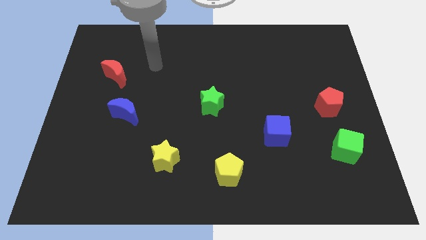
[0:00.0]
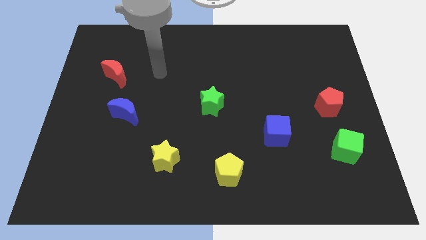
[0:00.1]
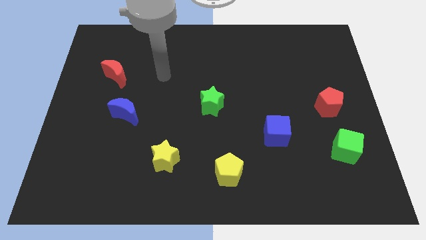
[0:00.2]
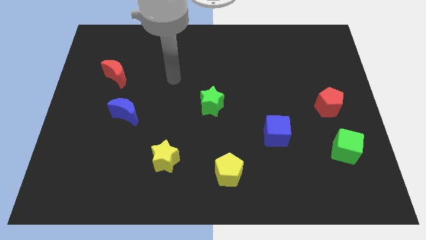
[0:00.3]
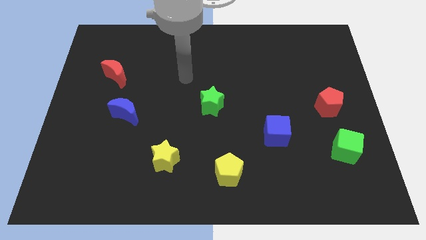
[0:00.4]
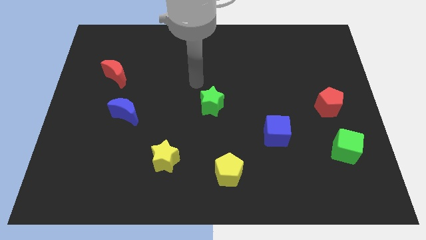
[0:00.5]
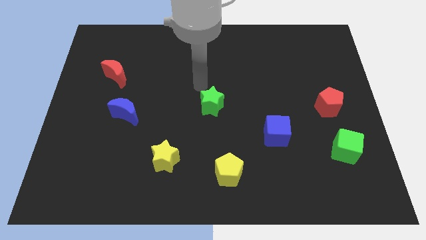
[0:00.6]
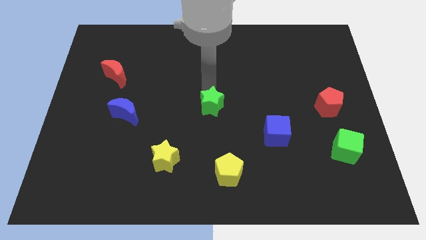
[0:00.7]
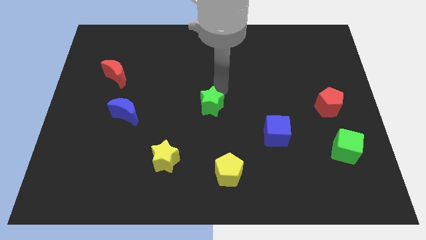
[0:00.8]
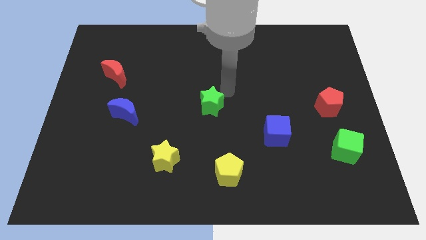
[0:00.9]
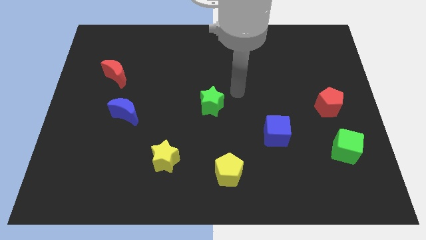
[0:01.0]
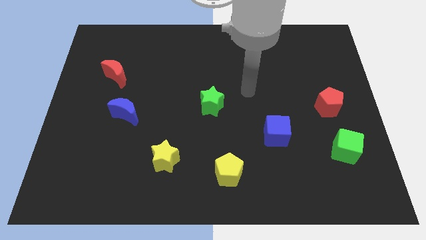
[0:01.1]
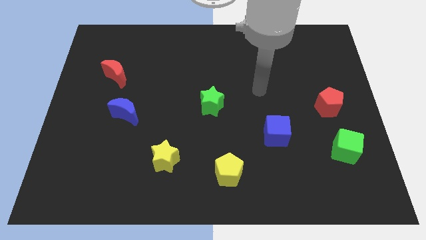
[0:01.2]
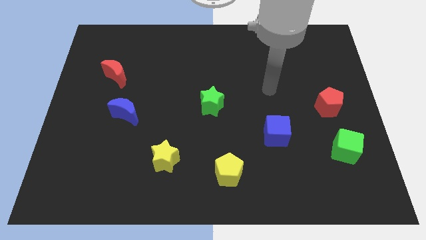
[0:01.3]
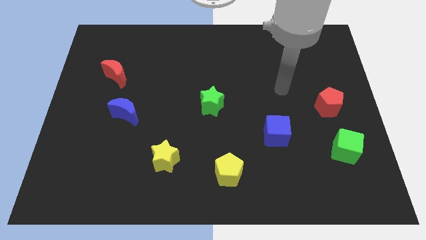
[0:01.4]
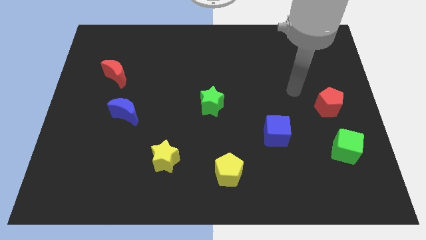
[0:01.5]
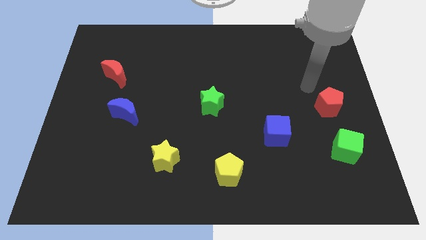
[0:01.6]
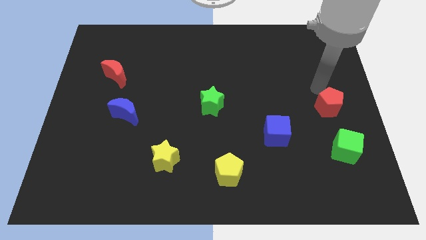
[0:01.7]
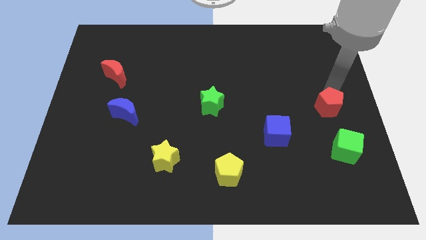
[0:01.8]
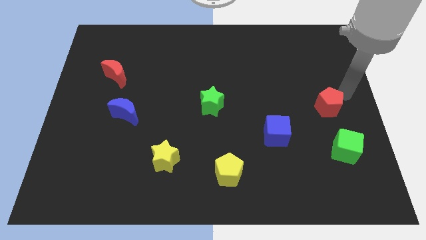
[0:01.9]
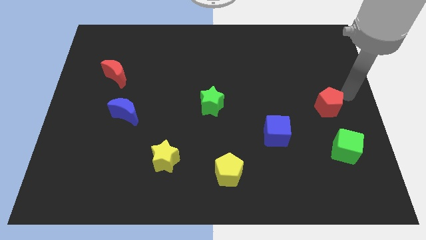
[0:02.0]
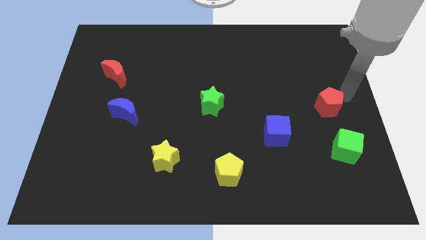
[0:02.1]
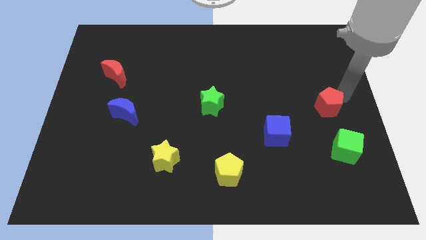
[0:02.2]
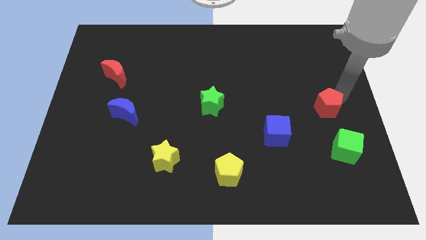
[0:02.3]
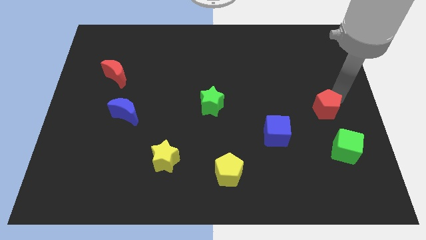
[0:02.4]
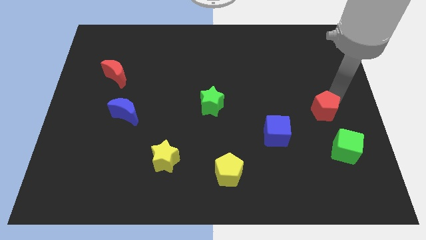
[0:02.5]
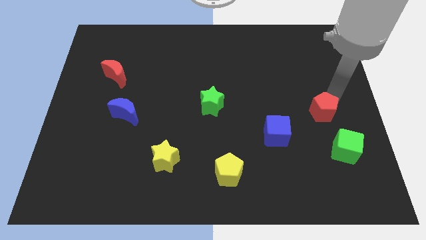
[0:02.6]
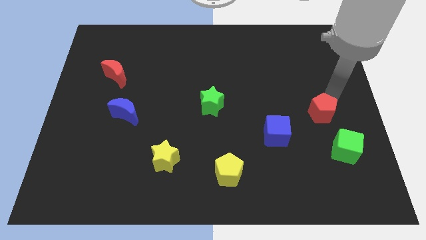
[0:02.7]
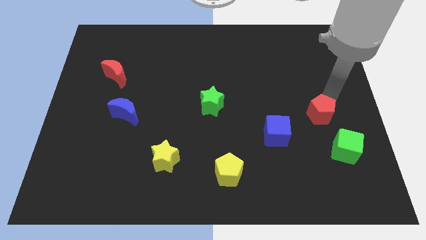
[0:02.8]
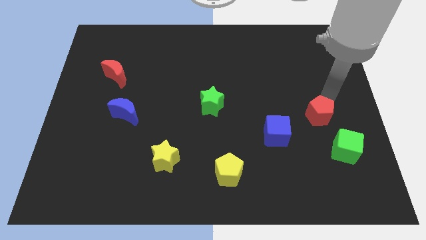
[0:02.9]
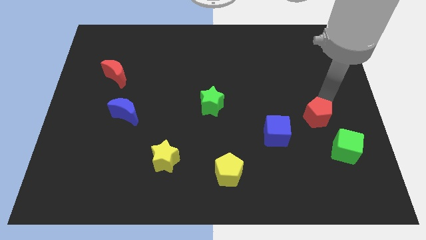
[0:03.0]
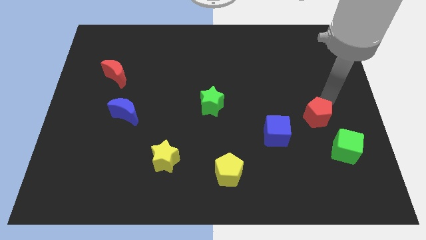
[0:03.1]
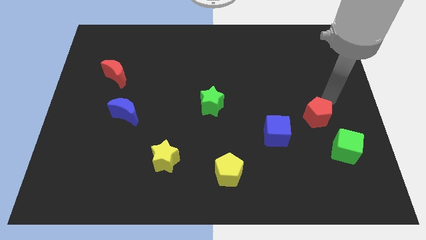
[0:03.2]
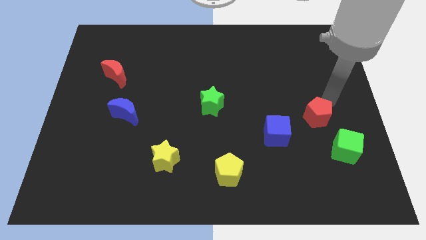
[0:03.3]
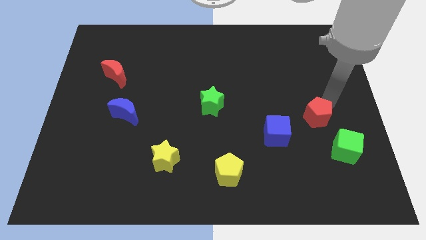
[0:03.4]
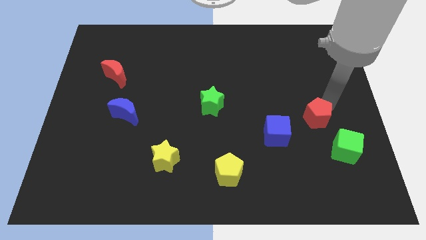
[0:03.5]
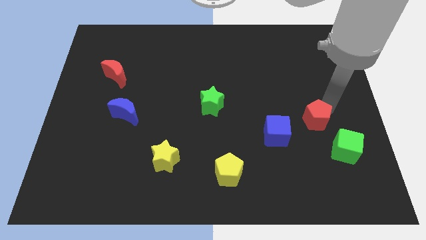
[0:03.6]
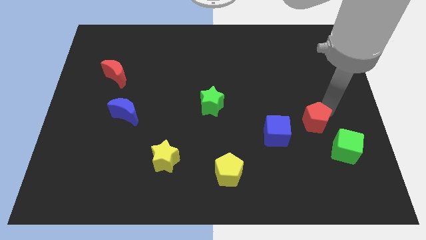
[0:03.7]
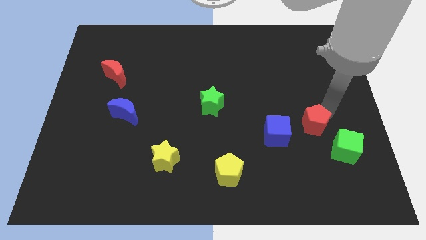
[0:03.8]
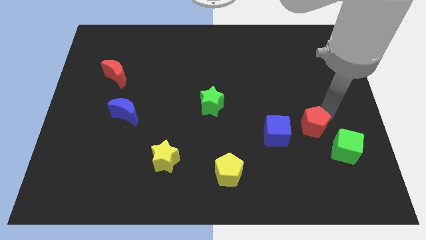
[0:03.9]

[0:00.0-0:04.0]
push the red pentagon downwards and left diagonally a bit

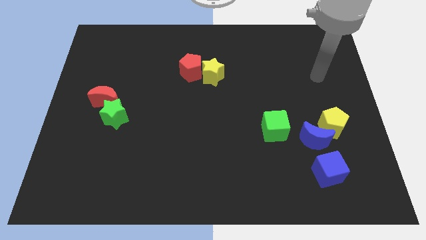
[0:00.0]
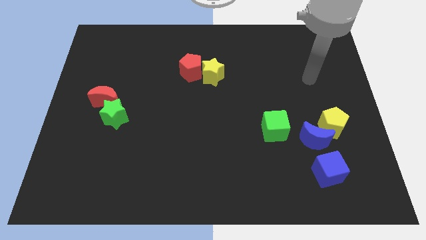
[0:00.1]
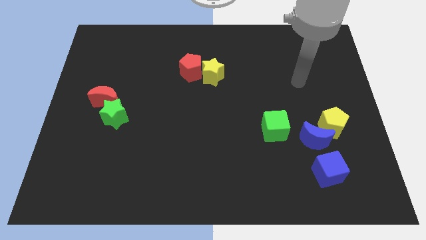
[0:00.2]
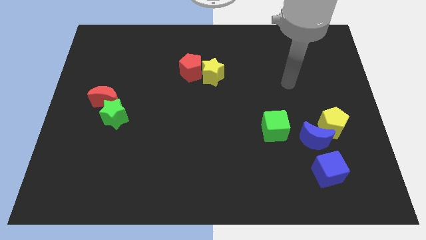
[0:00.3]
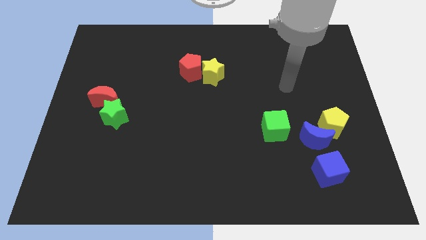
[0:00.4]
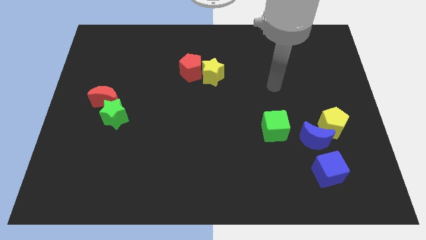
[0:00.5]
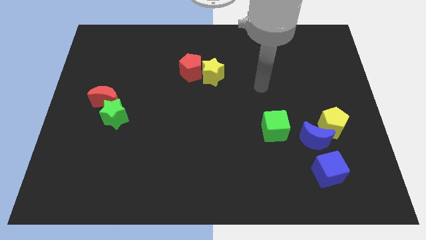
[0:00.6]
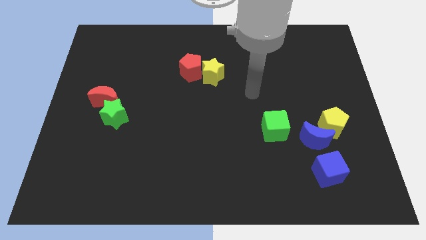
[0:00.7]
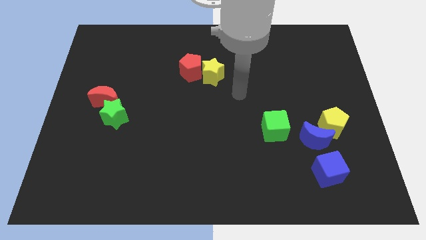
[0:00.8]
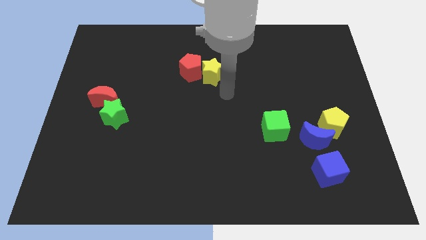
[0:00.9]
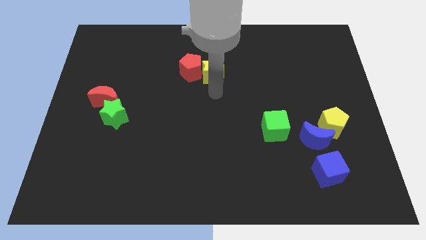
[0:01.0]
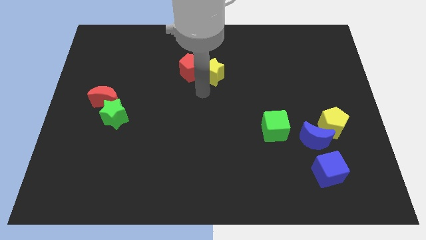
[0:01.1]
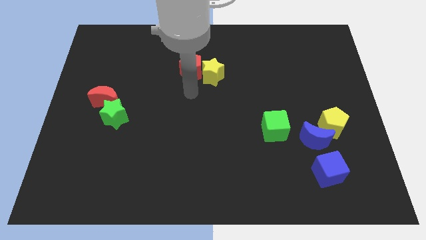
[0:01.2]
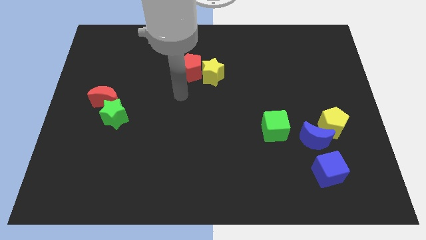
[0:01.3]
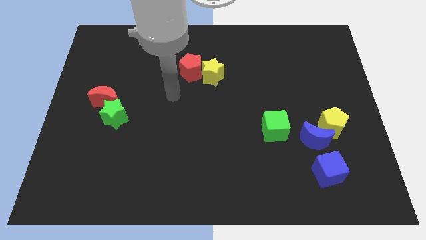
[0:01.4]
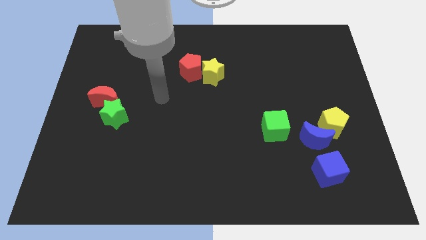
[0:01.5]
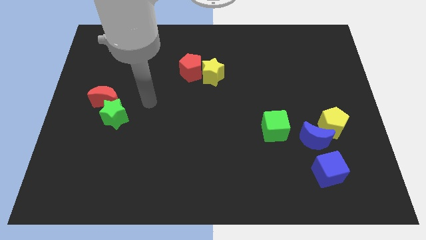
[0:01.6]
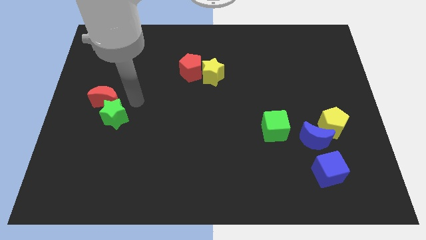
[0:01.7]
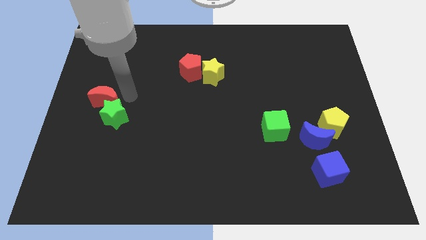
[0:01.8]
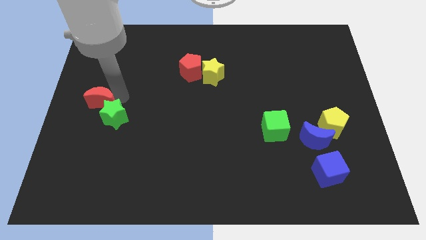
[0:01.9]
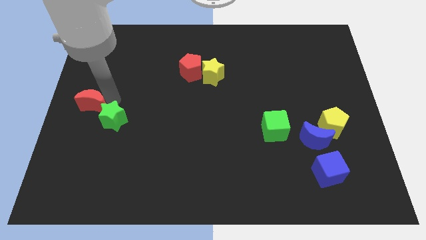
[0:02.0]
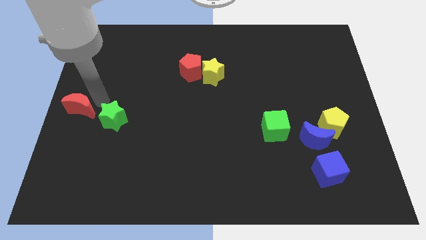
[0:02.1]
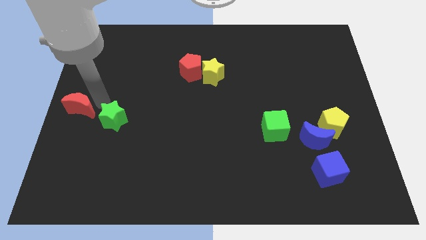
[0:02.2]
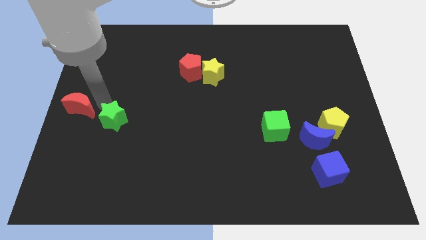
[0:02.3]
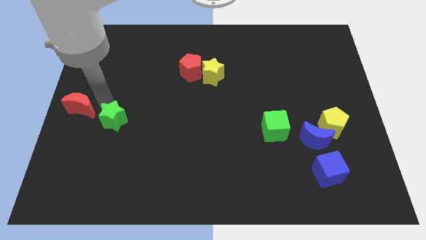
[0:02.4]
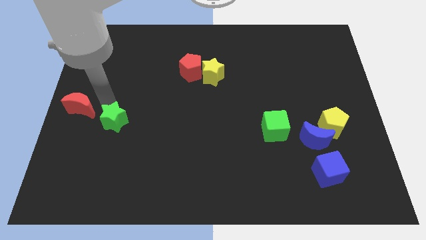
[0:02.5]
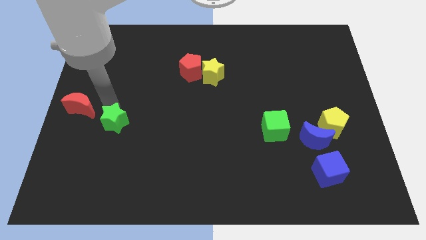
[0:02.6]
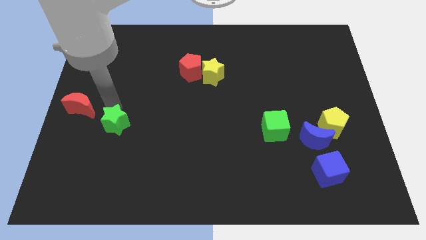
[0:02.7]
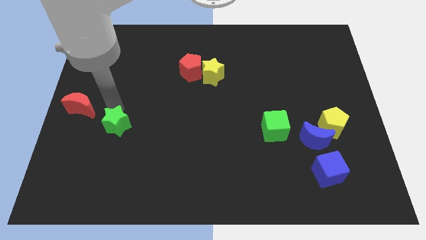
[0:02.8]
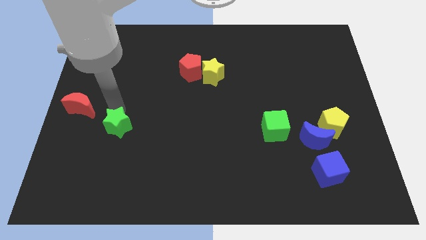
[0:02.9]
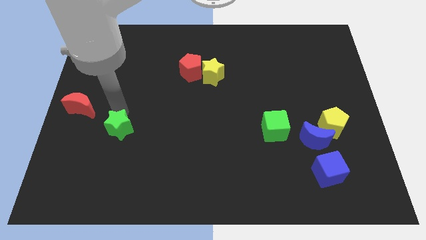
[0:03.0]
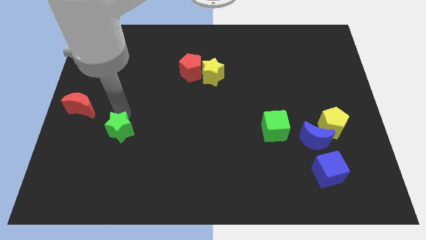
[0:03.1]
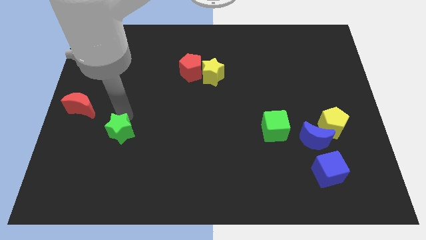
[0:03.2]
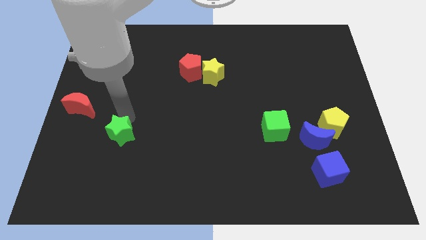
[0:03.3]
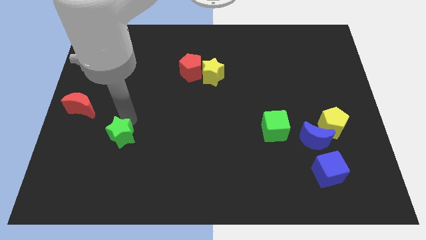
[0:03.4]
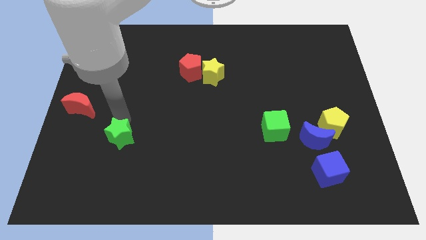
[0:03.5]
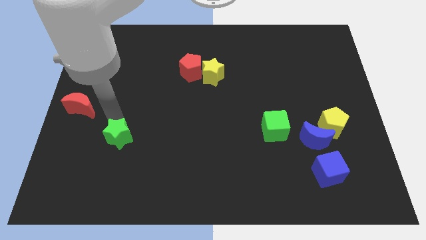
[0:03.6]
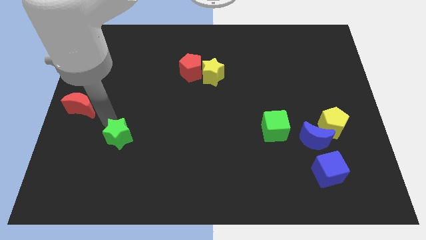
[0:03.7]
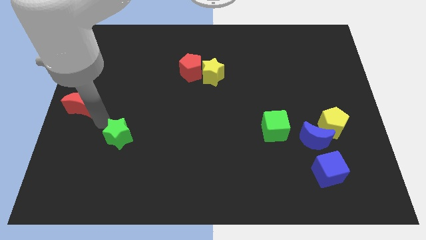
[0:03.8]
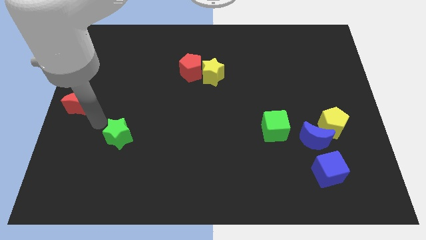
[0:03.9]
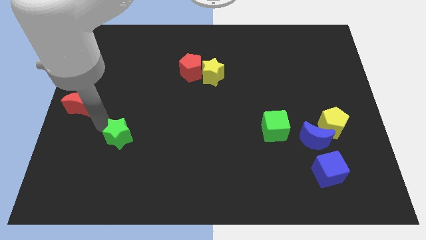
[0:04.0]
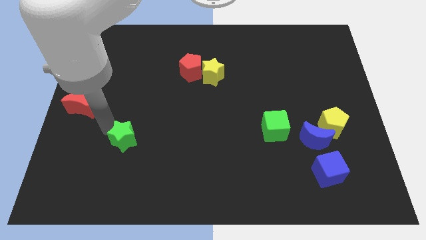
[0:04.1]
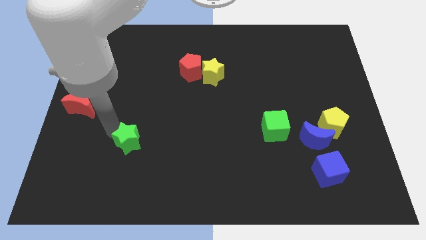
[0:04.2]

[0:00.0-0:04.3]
slightly move the green star down and right
